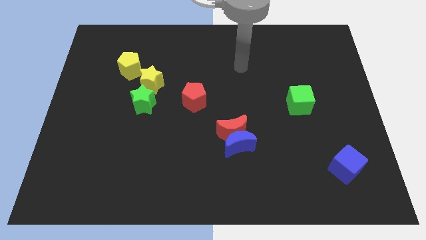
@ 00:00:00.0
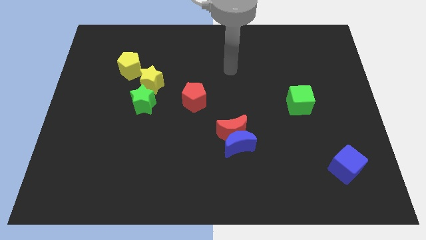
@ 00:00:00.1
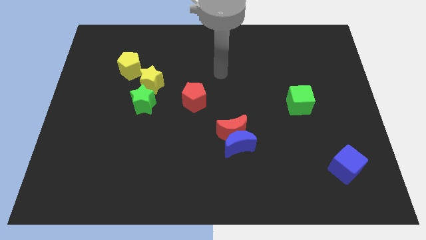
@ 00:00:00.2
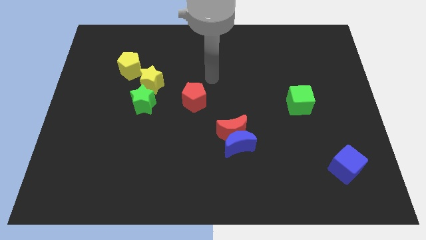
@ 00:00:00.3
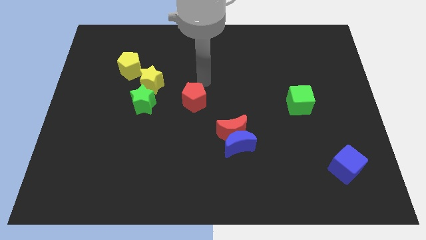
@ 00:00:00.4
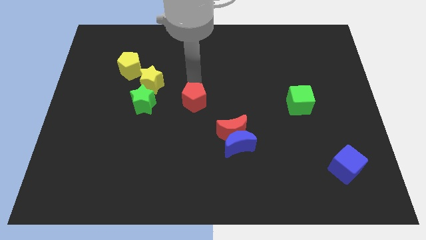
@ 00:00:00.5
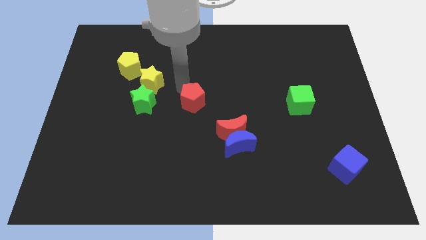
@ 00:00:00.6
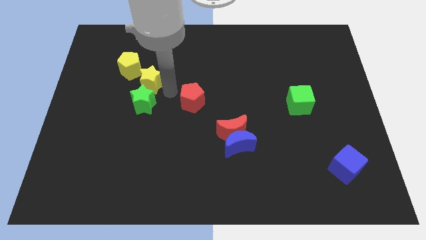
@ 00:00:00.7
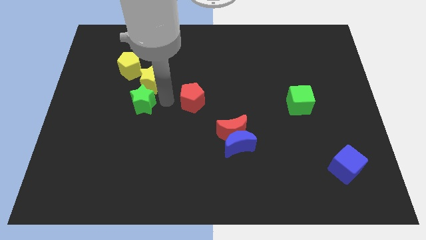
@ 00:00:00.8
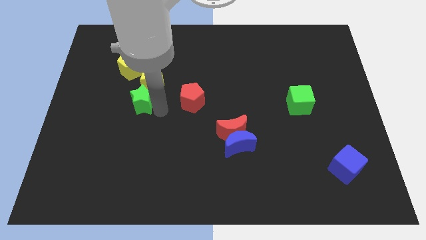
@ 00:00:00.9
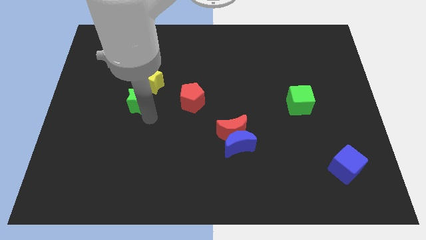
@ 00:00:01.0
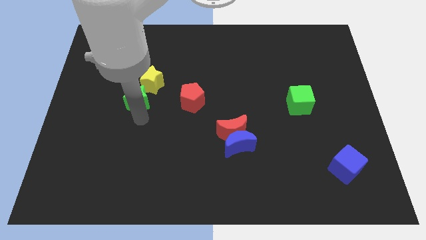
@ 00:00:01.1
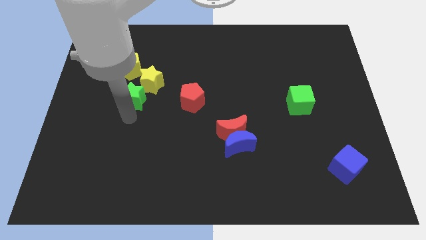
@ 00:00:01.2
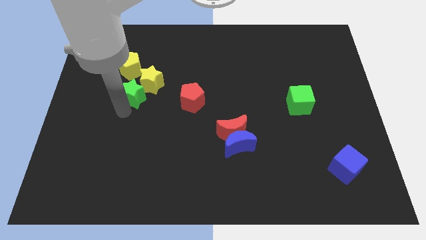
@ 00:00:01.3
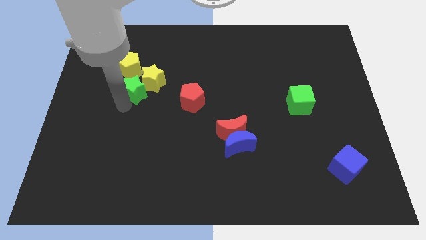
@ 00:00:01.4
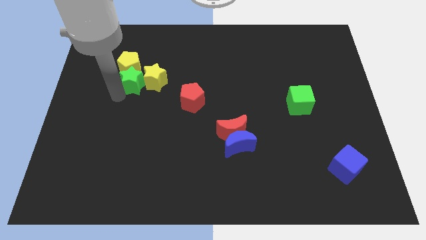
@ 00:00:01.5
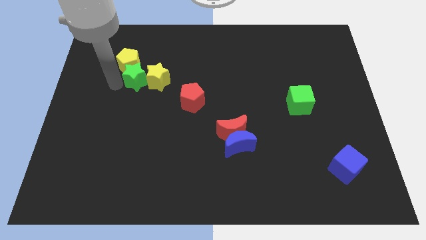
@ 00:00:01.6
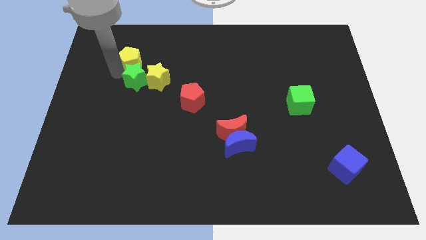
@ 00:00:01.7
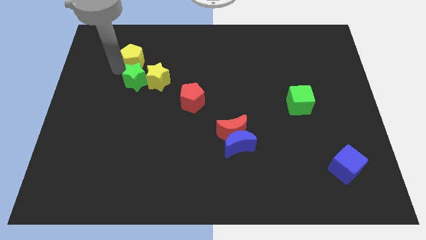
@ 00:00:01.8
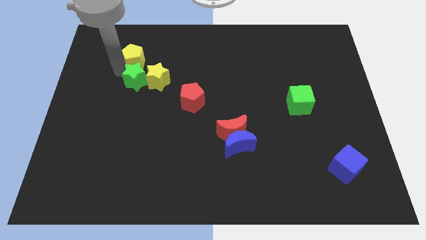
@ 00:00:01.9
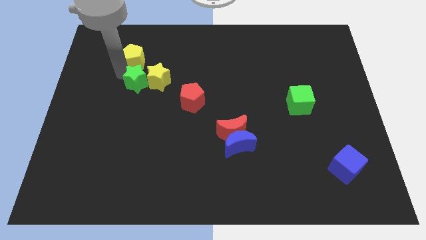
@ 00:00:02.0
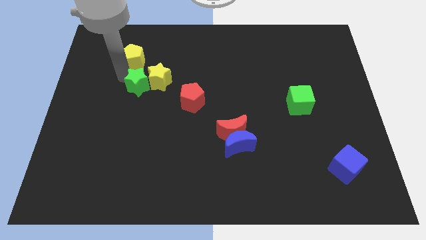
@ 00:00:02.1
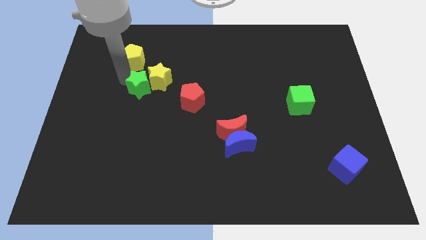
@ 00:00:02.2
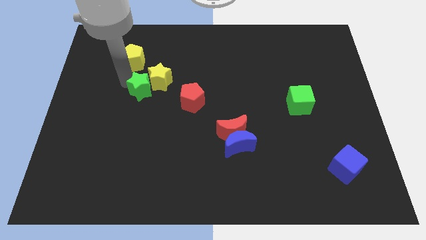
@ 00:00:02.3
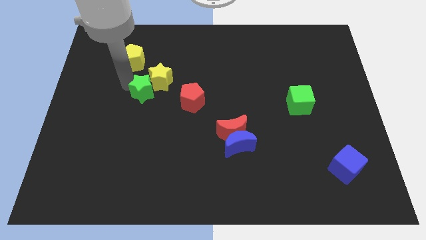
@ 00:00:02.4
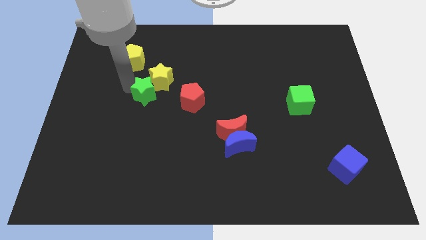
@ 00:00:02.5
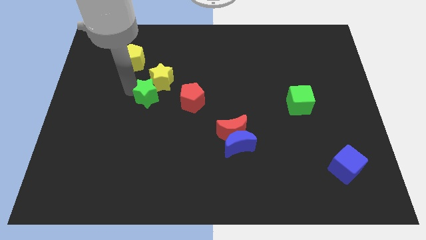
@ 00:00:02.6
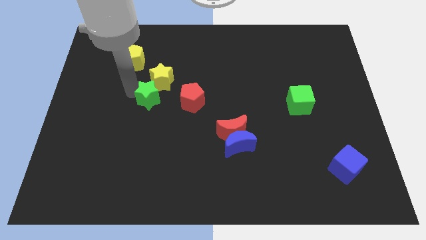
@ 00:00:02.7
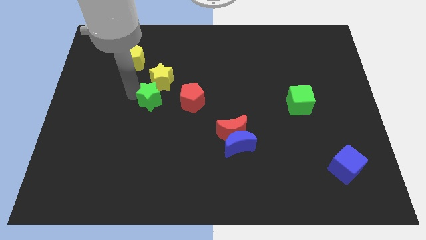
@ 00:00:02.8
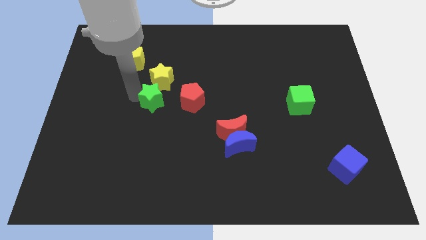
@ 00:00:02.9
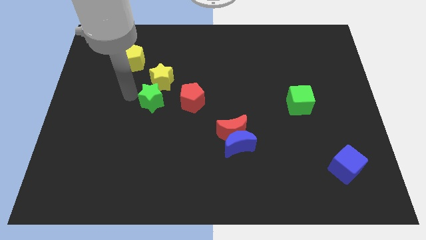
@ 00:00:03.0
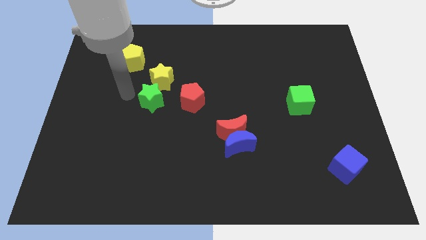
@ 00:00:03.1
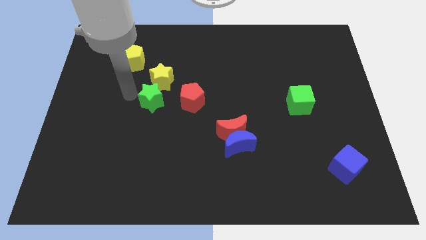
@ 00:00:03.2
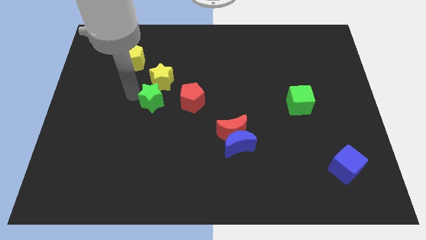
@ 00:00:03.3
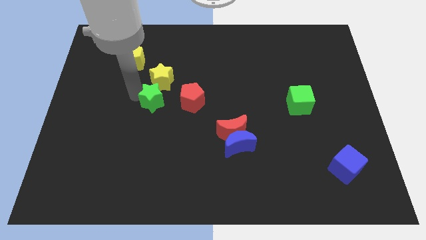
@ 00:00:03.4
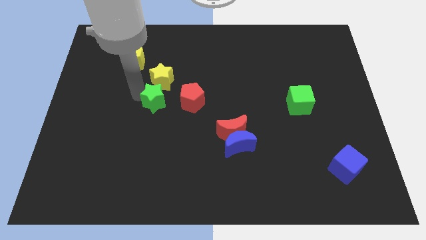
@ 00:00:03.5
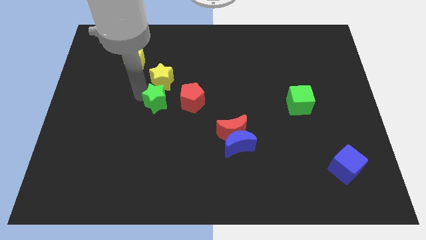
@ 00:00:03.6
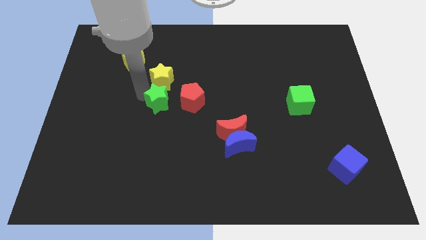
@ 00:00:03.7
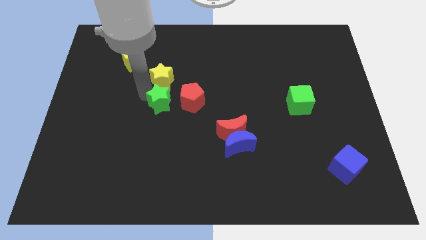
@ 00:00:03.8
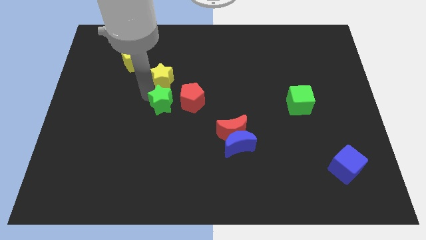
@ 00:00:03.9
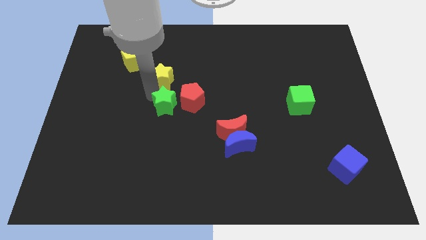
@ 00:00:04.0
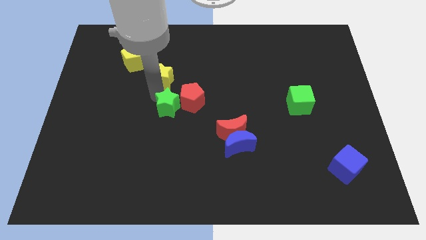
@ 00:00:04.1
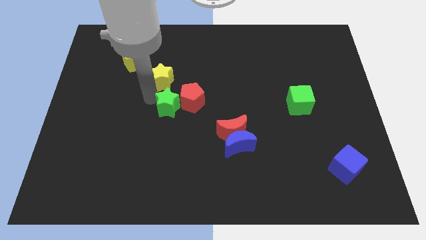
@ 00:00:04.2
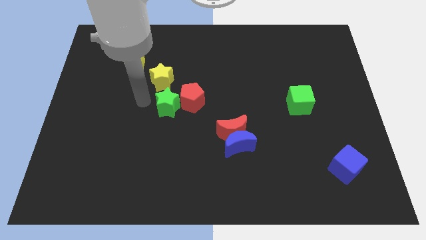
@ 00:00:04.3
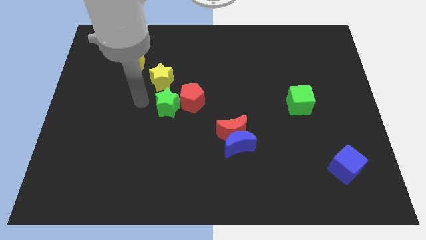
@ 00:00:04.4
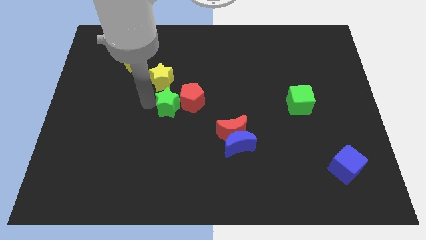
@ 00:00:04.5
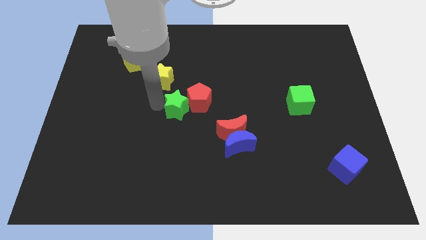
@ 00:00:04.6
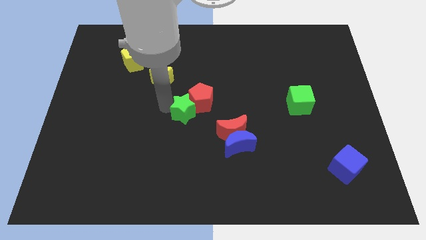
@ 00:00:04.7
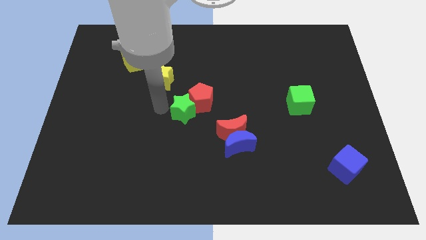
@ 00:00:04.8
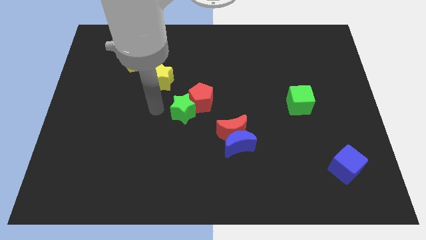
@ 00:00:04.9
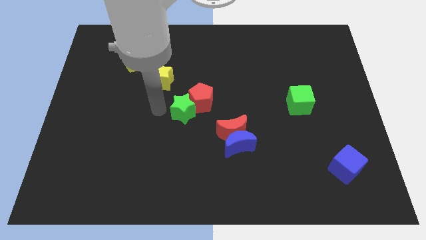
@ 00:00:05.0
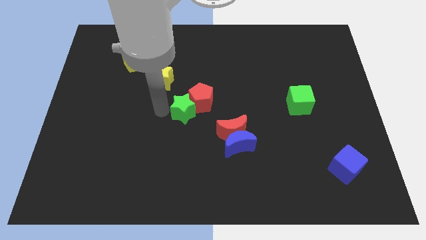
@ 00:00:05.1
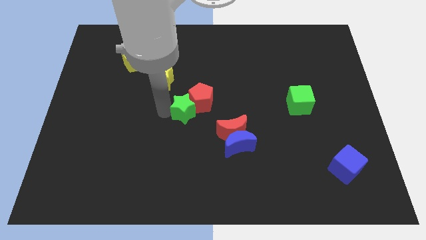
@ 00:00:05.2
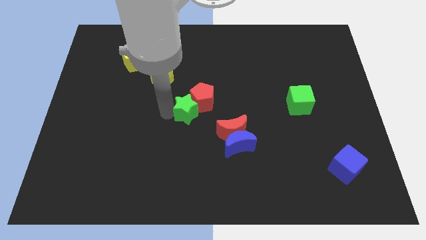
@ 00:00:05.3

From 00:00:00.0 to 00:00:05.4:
slide the green star diagonally up and to the left of the red moon

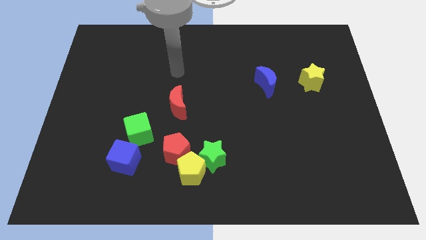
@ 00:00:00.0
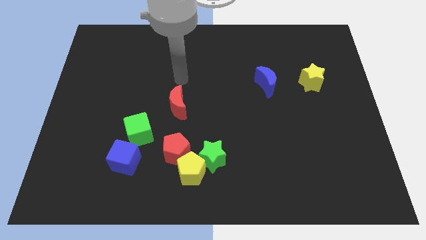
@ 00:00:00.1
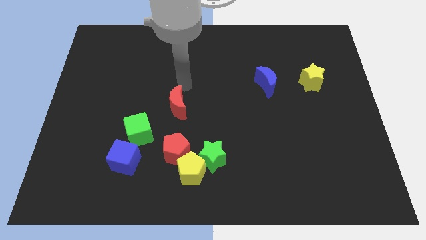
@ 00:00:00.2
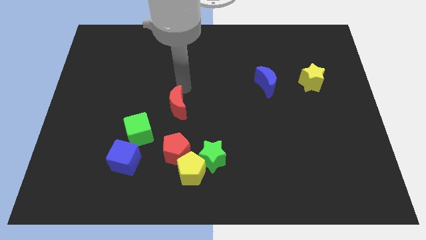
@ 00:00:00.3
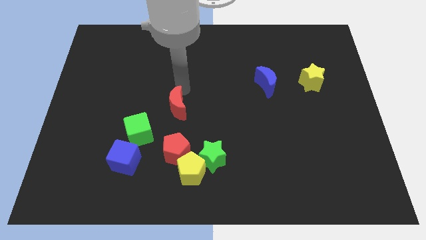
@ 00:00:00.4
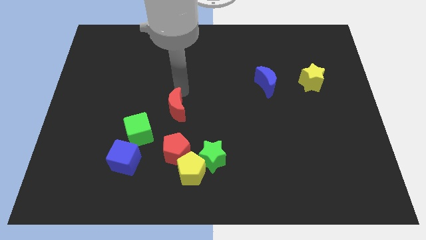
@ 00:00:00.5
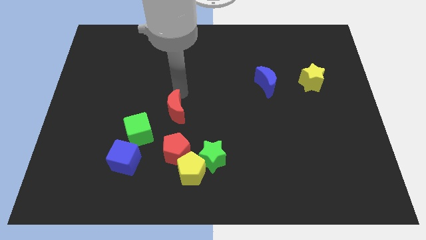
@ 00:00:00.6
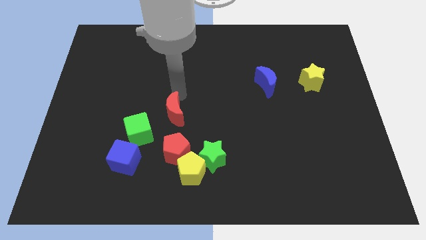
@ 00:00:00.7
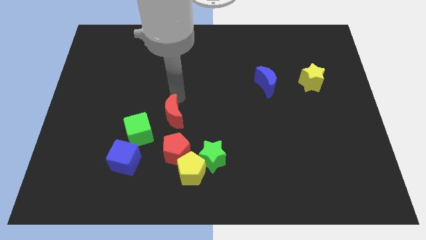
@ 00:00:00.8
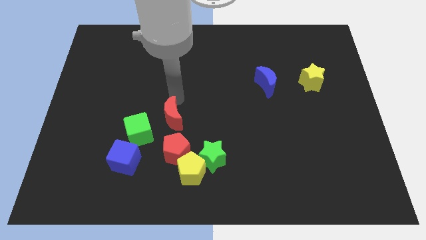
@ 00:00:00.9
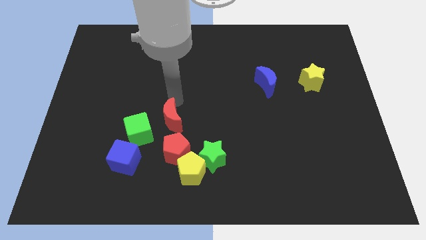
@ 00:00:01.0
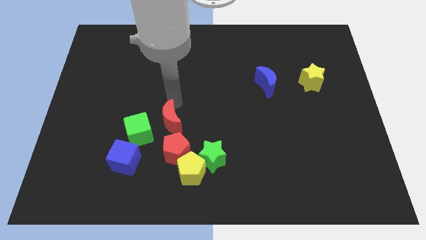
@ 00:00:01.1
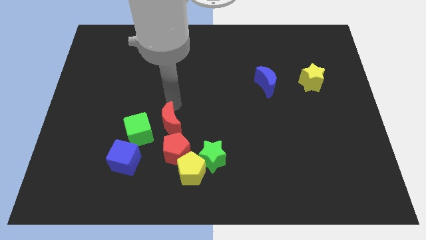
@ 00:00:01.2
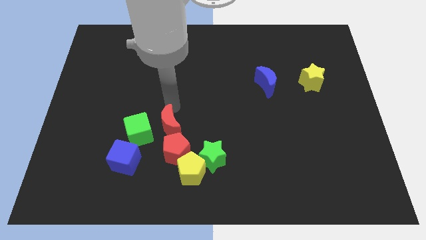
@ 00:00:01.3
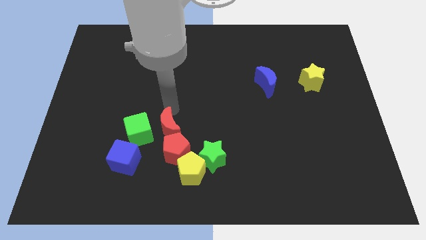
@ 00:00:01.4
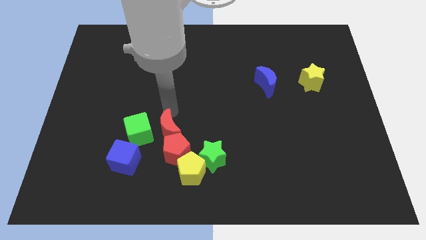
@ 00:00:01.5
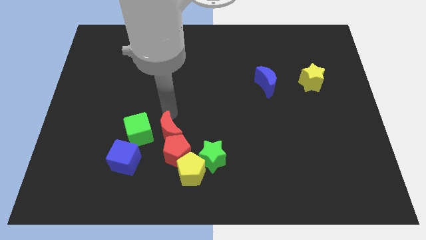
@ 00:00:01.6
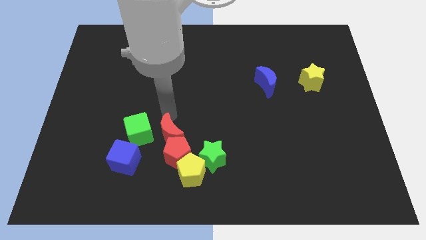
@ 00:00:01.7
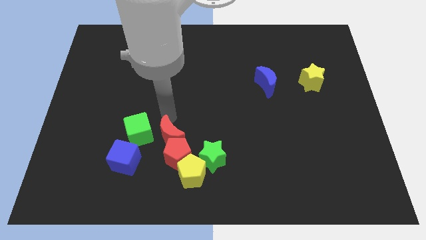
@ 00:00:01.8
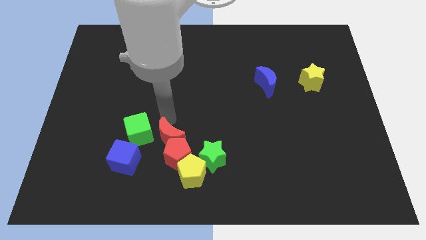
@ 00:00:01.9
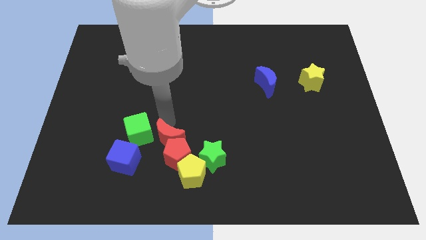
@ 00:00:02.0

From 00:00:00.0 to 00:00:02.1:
put the red moon to the left of the green star
